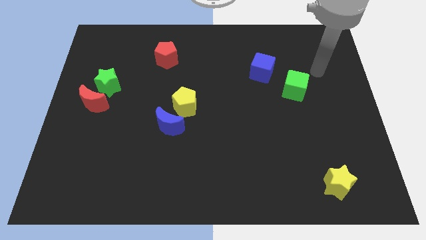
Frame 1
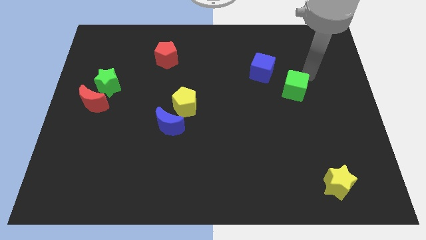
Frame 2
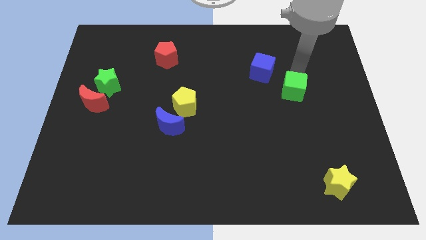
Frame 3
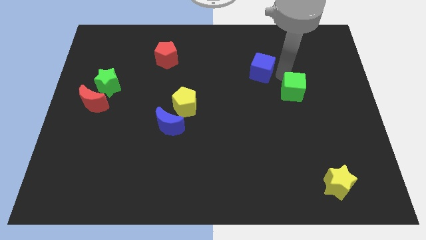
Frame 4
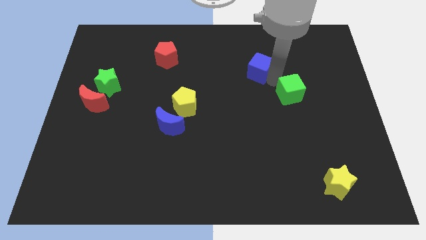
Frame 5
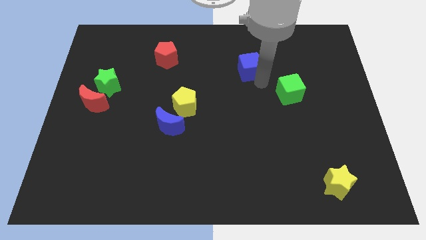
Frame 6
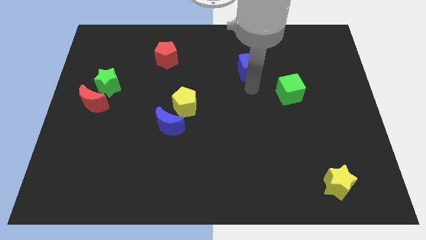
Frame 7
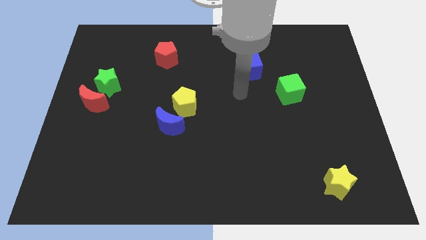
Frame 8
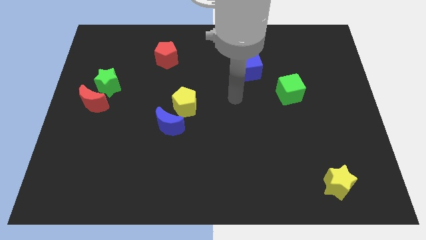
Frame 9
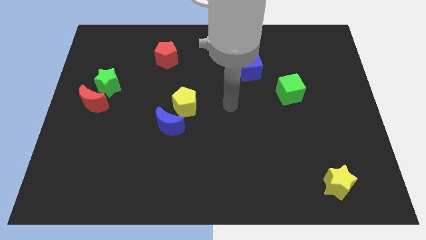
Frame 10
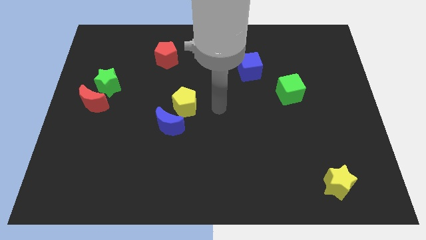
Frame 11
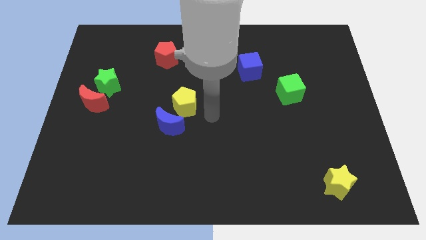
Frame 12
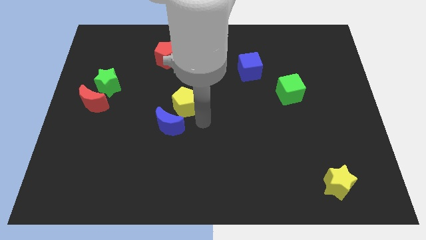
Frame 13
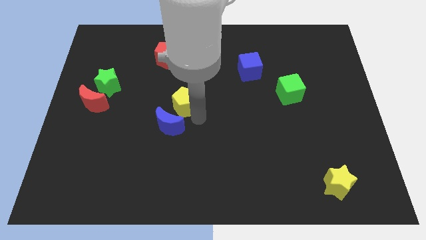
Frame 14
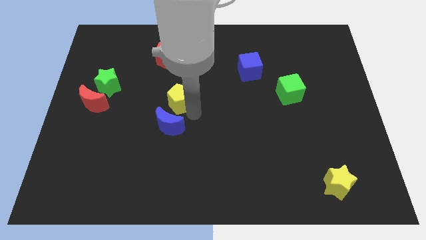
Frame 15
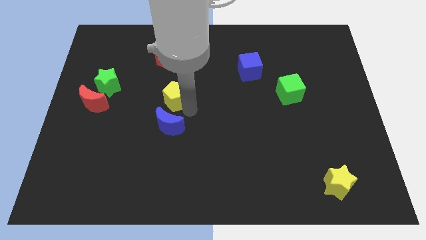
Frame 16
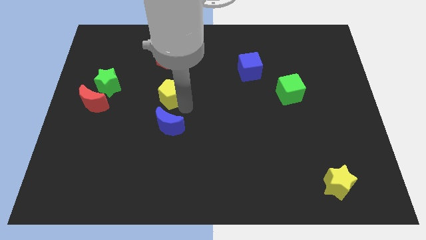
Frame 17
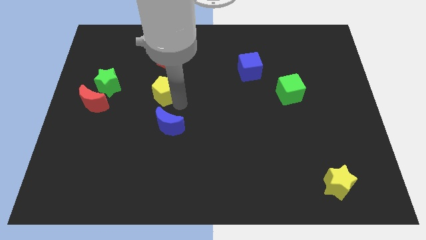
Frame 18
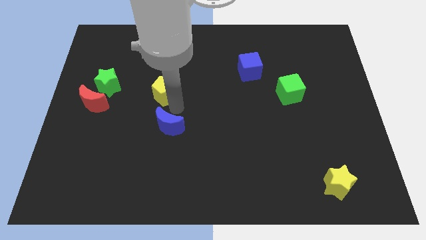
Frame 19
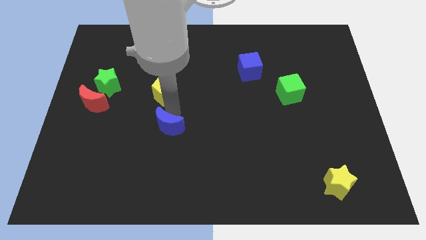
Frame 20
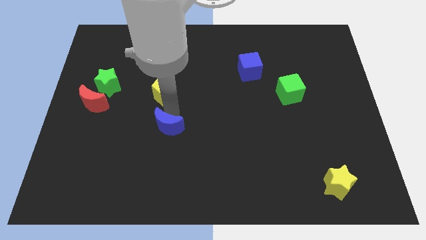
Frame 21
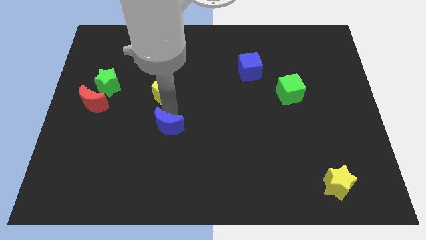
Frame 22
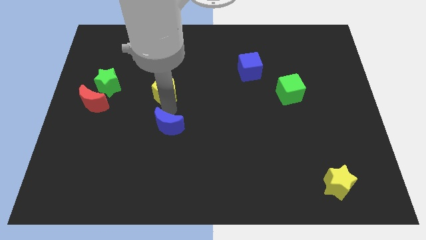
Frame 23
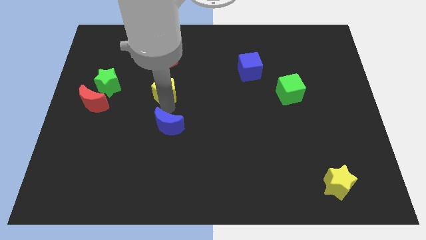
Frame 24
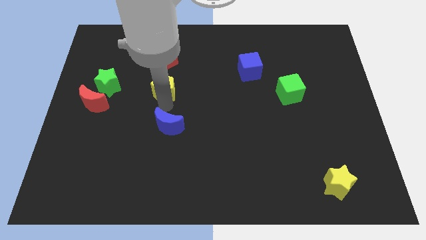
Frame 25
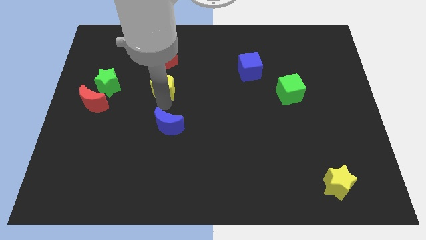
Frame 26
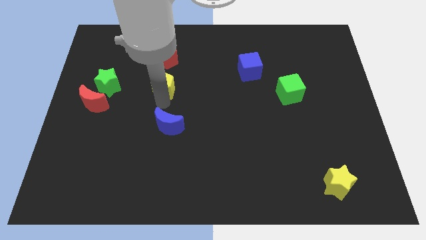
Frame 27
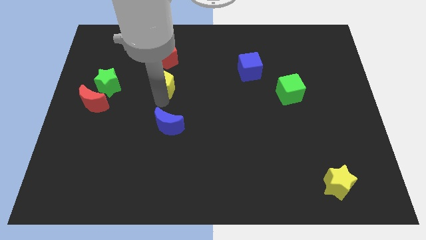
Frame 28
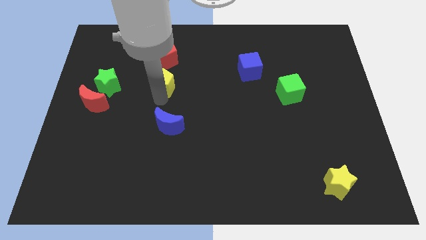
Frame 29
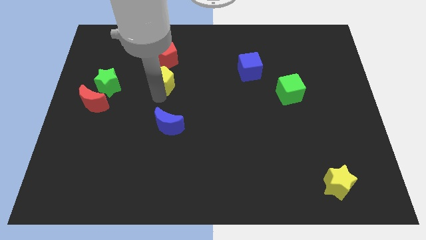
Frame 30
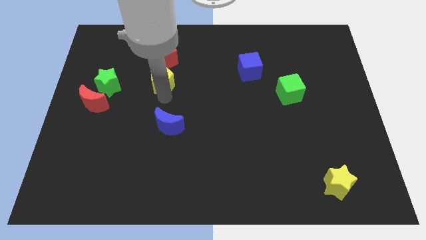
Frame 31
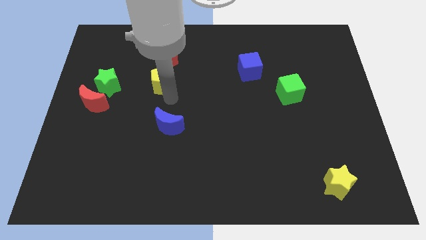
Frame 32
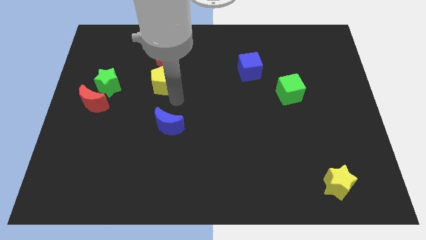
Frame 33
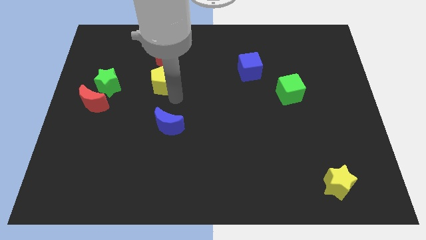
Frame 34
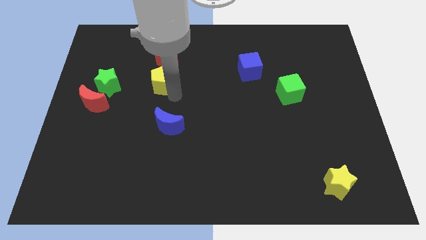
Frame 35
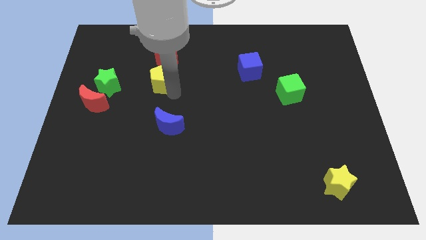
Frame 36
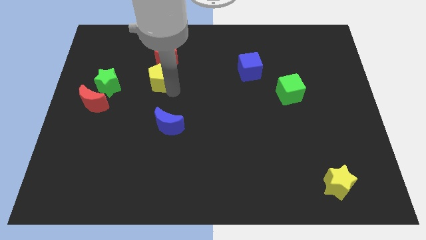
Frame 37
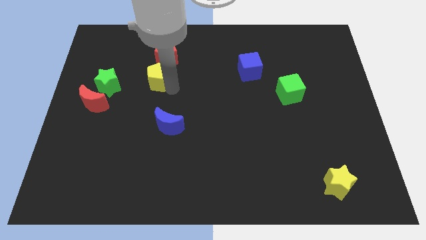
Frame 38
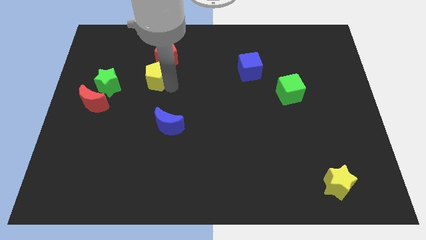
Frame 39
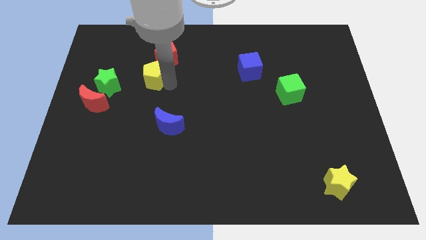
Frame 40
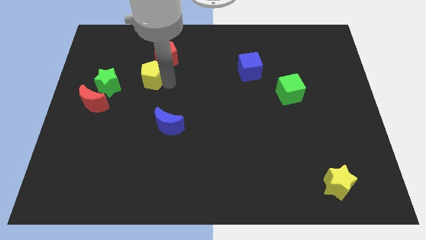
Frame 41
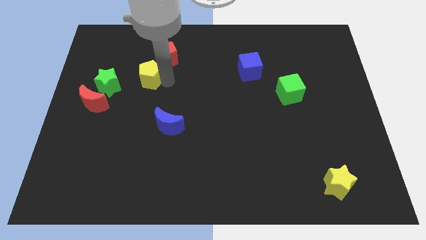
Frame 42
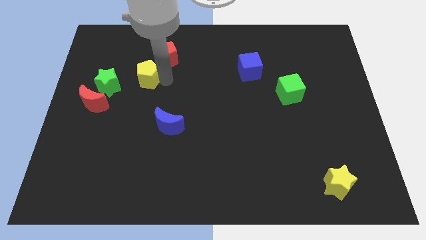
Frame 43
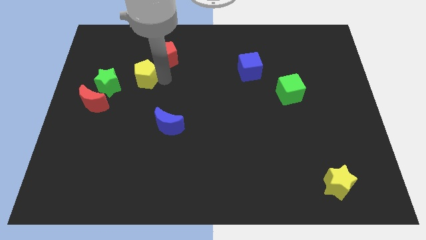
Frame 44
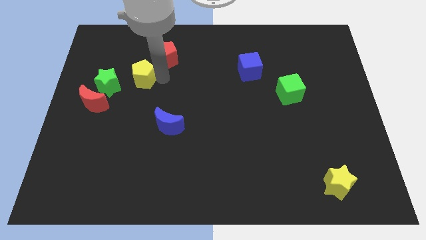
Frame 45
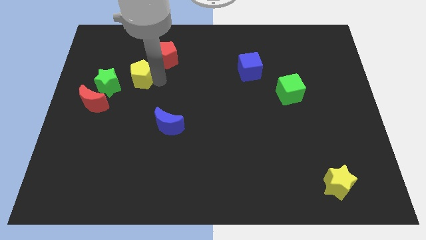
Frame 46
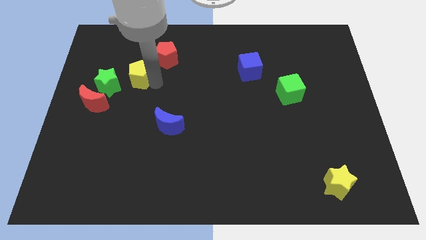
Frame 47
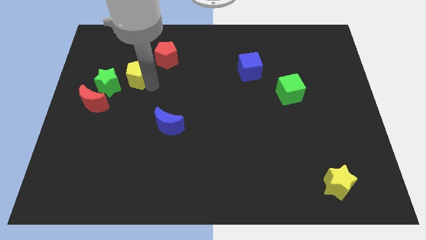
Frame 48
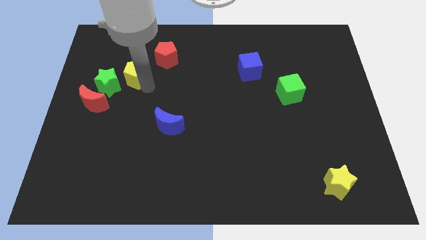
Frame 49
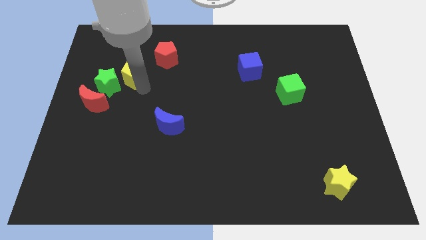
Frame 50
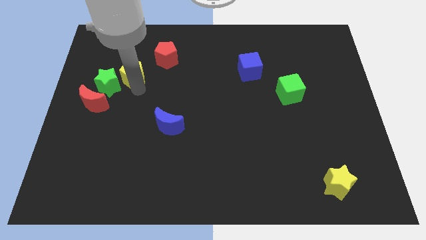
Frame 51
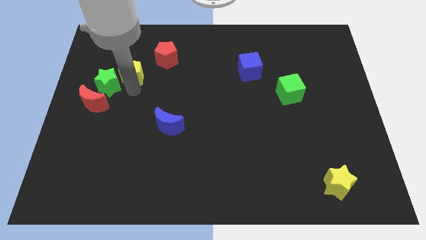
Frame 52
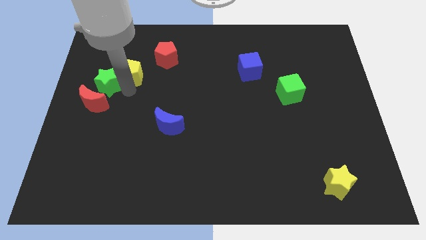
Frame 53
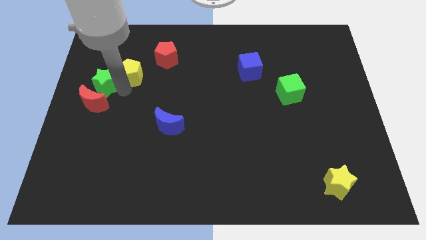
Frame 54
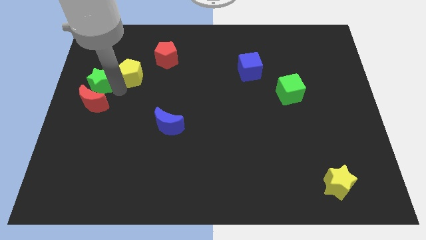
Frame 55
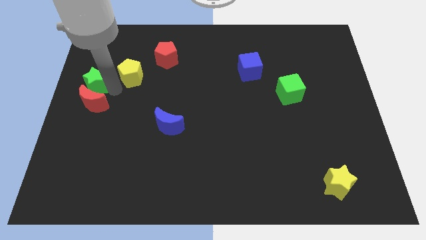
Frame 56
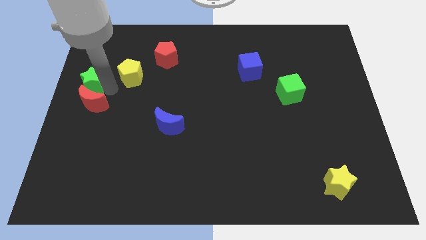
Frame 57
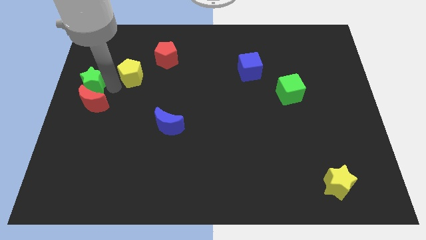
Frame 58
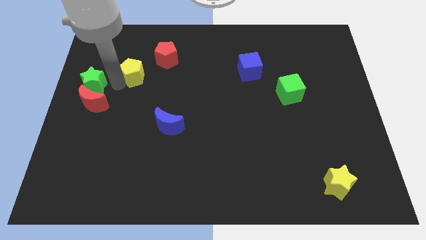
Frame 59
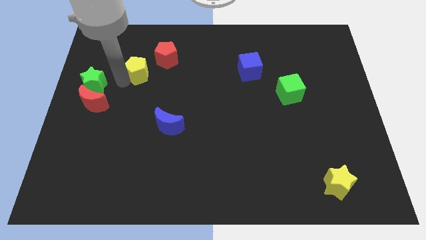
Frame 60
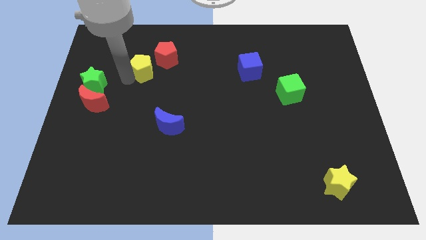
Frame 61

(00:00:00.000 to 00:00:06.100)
put the yellow pentagon to the left of the red pentagon
